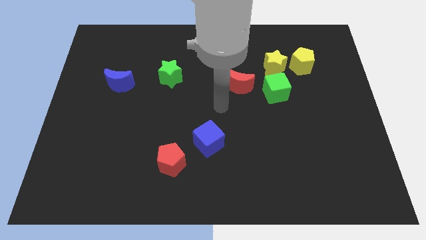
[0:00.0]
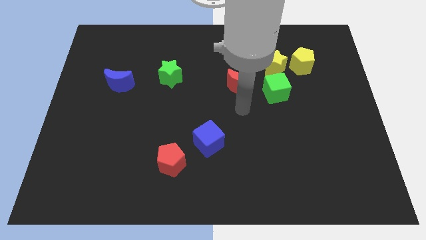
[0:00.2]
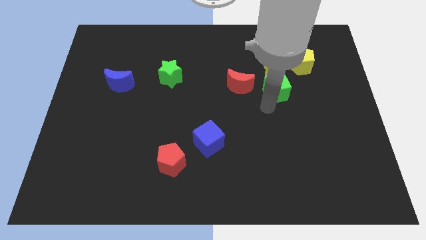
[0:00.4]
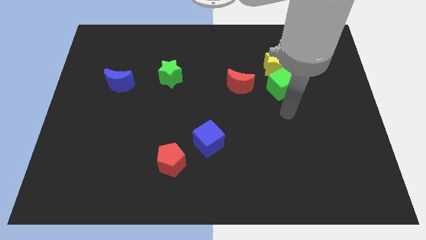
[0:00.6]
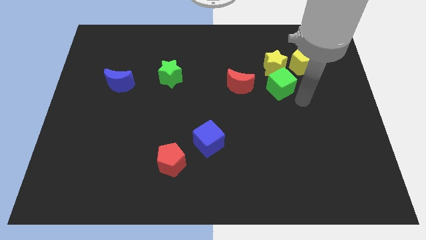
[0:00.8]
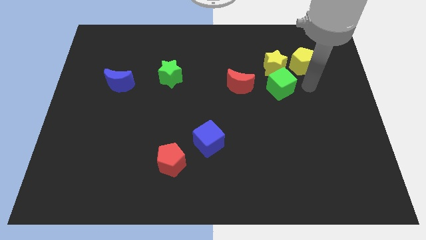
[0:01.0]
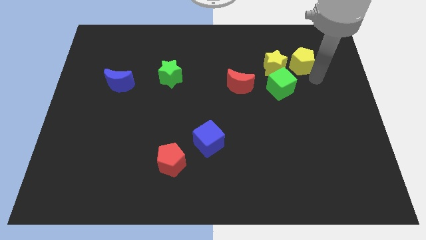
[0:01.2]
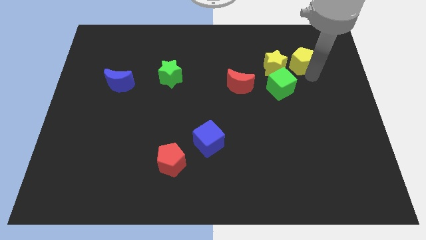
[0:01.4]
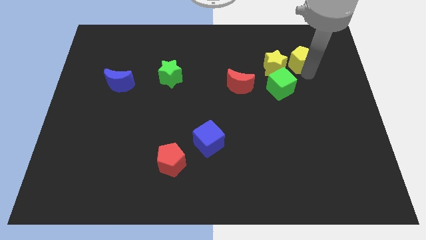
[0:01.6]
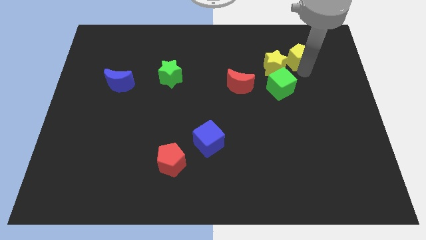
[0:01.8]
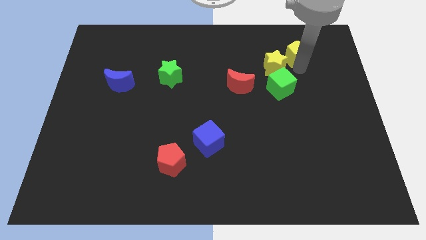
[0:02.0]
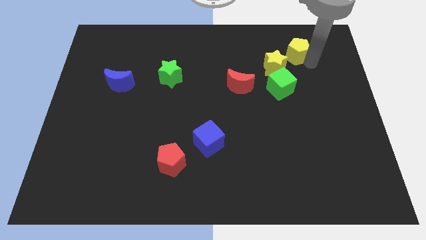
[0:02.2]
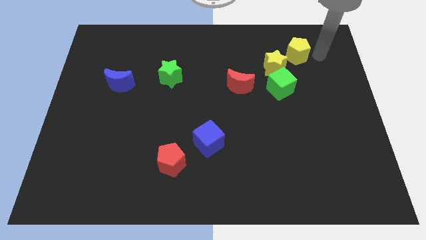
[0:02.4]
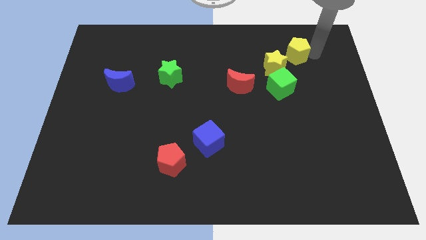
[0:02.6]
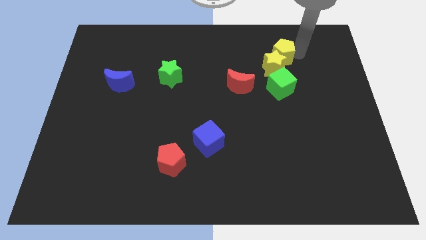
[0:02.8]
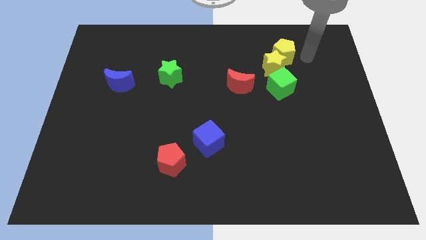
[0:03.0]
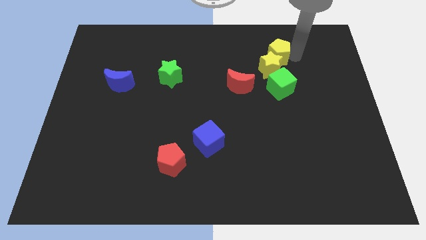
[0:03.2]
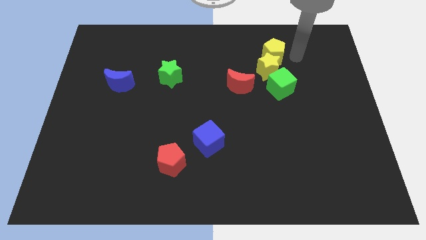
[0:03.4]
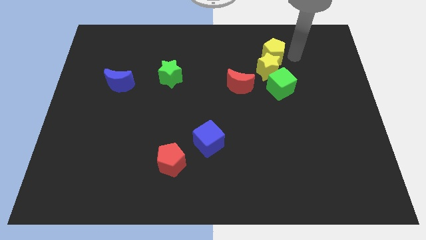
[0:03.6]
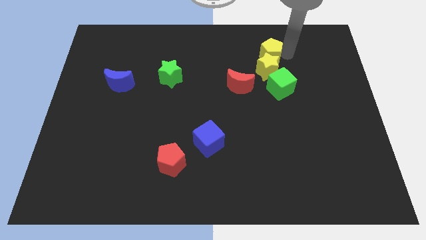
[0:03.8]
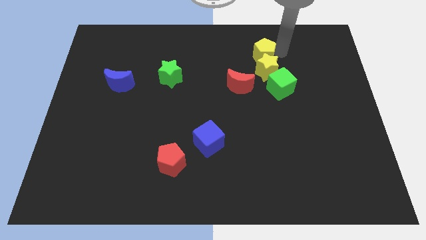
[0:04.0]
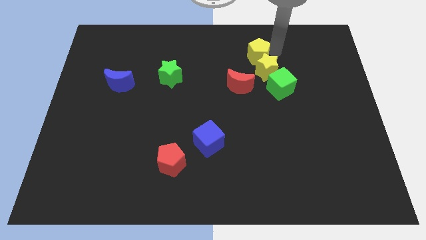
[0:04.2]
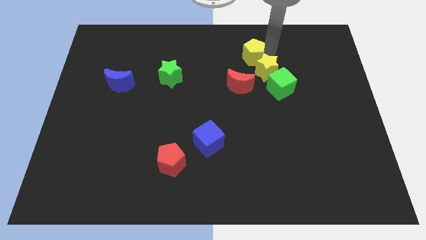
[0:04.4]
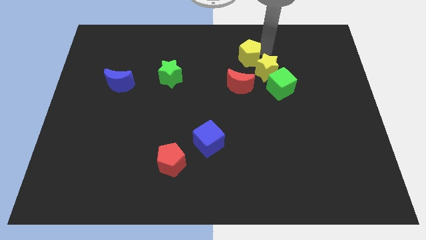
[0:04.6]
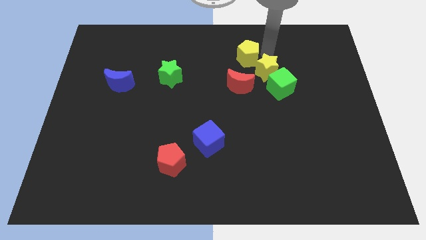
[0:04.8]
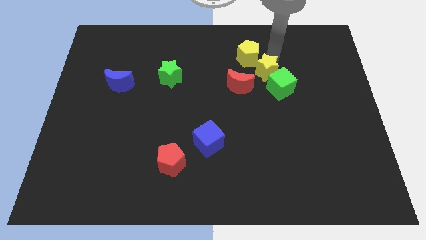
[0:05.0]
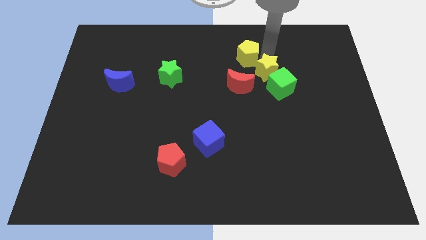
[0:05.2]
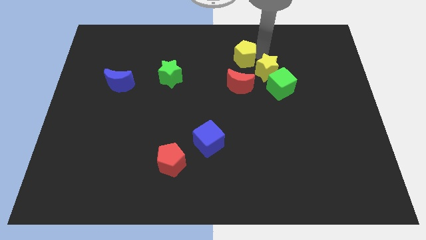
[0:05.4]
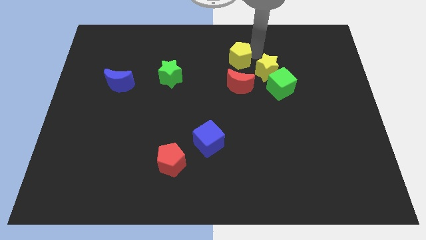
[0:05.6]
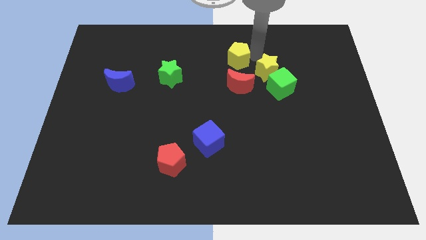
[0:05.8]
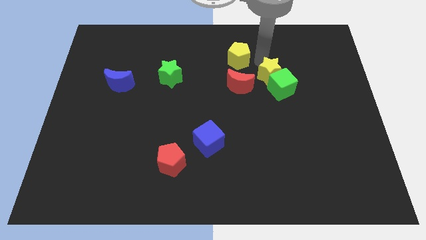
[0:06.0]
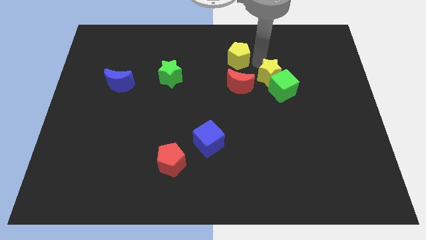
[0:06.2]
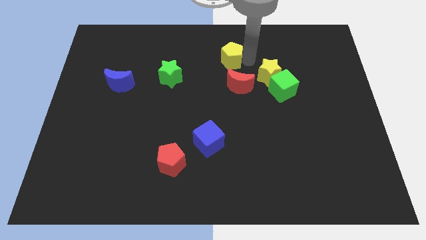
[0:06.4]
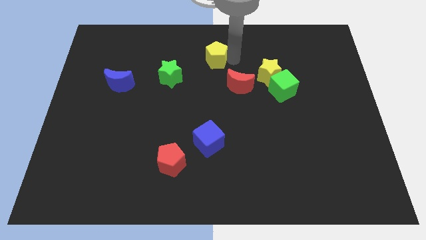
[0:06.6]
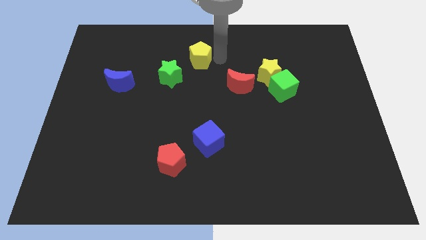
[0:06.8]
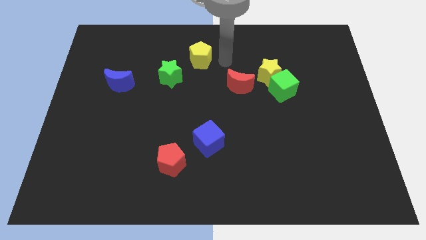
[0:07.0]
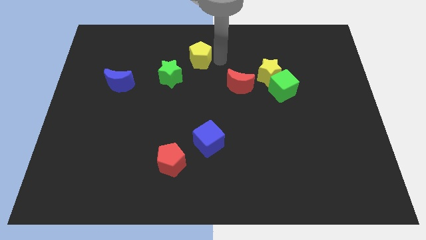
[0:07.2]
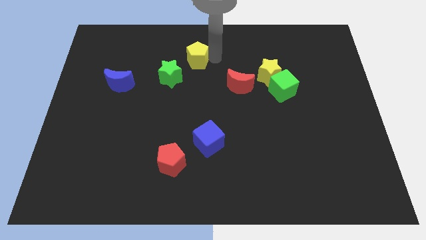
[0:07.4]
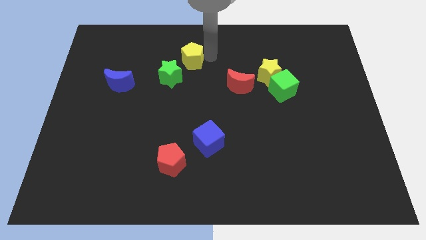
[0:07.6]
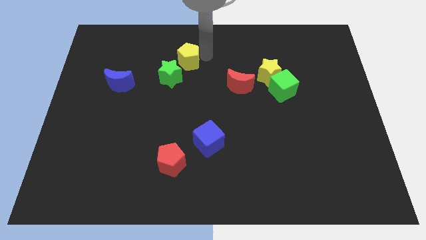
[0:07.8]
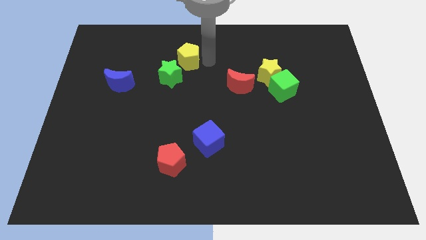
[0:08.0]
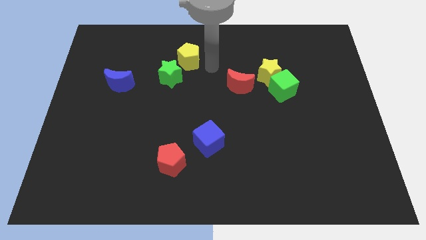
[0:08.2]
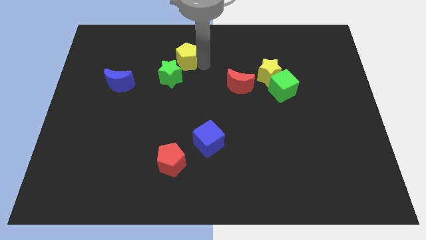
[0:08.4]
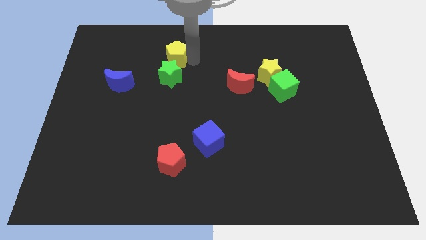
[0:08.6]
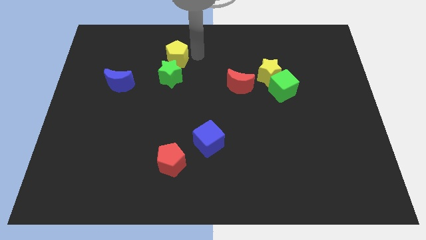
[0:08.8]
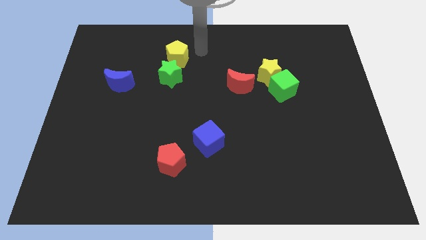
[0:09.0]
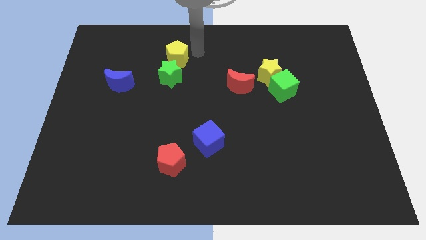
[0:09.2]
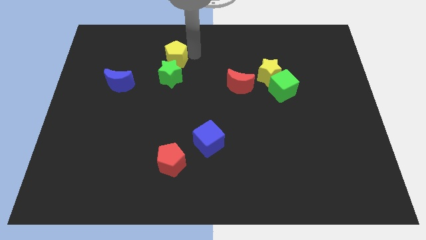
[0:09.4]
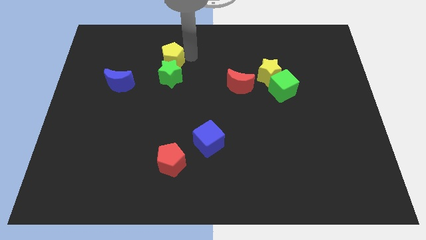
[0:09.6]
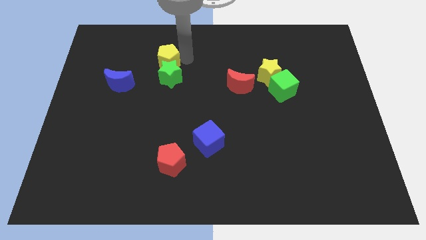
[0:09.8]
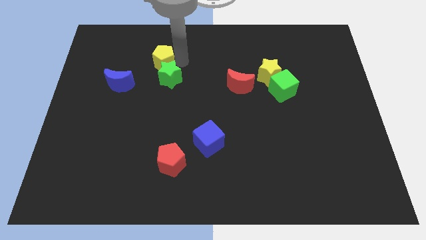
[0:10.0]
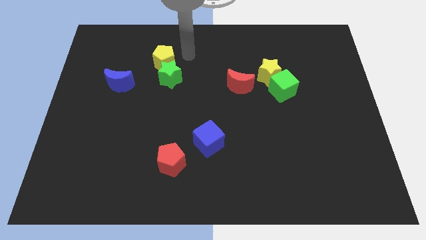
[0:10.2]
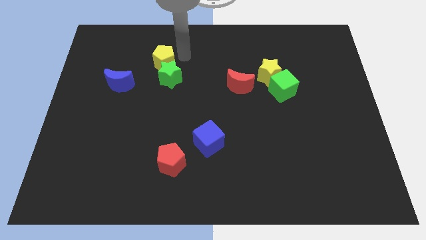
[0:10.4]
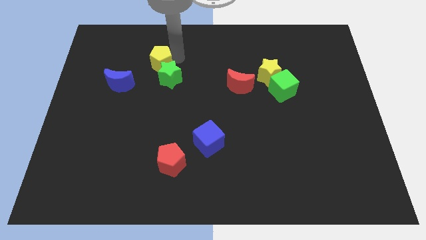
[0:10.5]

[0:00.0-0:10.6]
push the yellow pentagon to the top right side of the blue moon

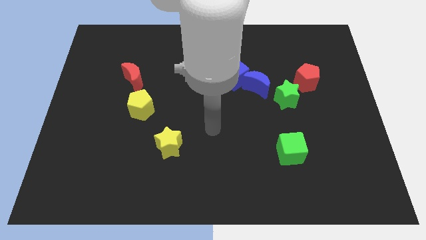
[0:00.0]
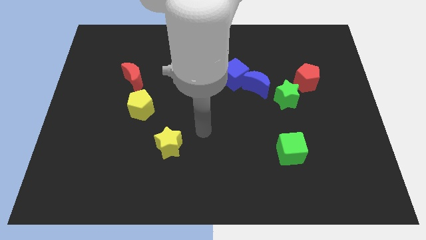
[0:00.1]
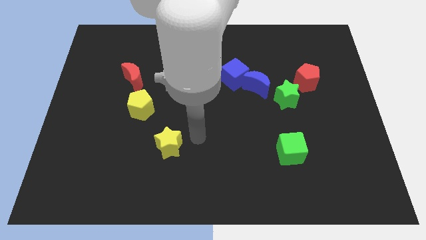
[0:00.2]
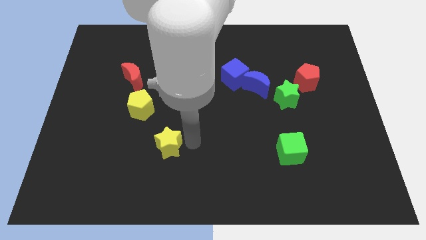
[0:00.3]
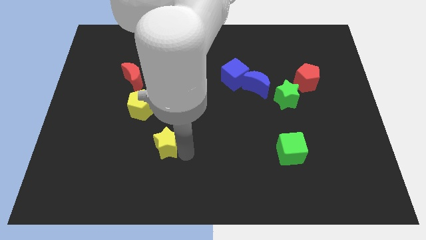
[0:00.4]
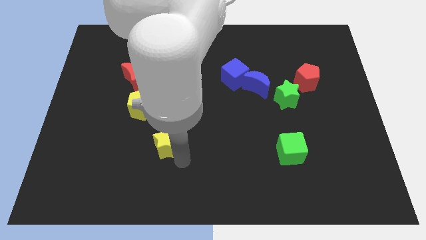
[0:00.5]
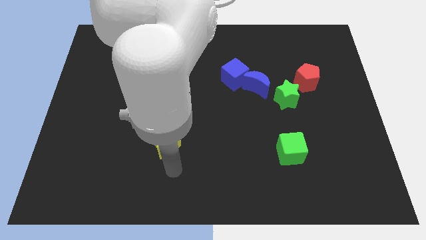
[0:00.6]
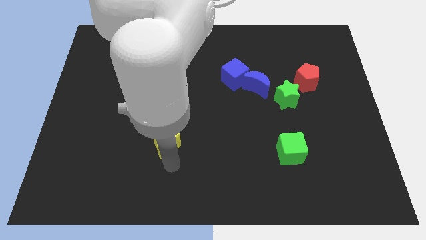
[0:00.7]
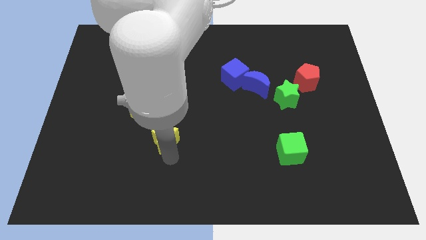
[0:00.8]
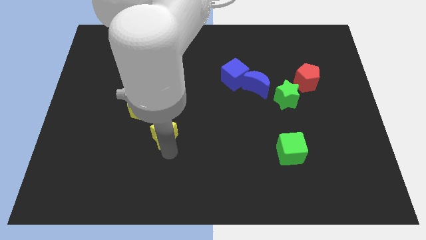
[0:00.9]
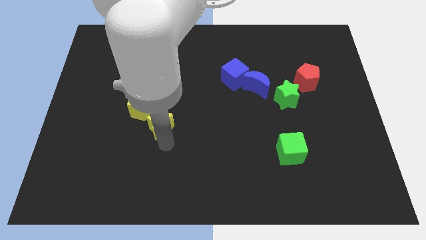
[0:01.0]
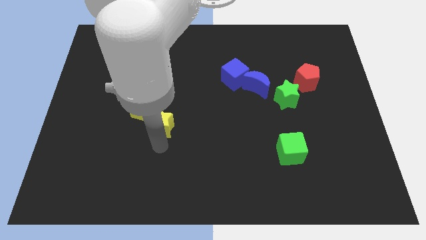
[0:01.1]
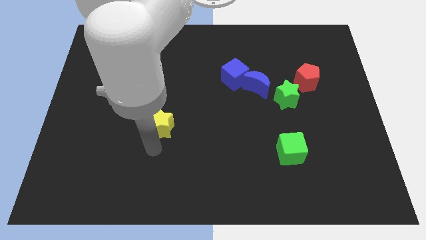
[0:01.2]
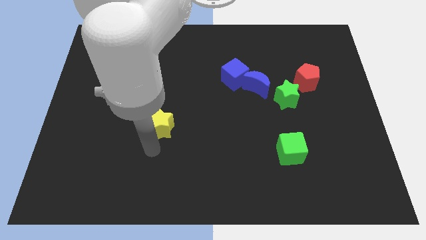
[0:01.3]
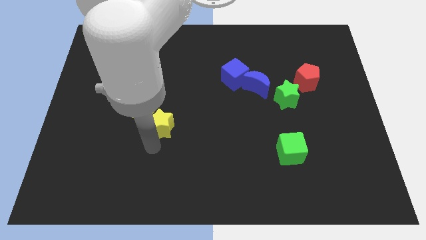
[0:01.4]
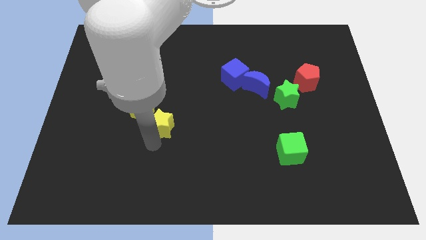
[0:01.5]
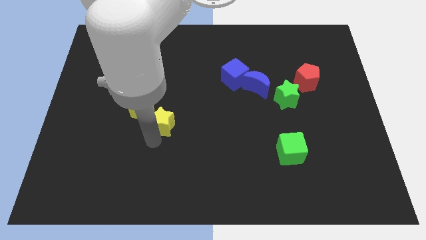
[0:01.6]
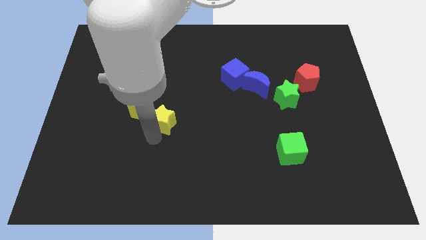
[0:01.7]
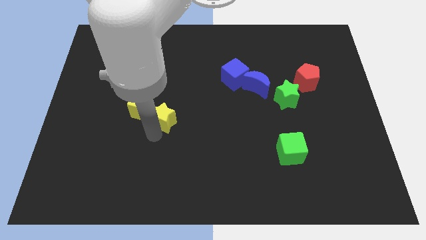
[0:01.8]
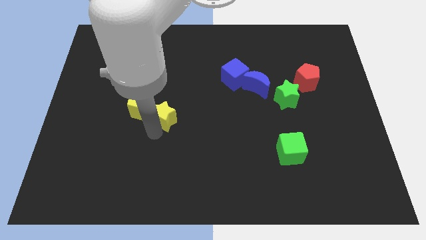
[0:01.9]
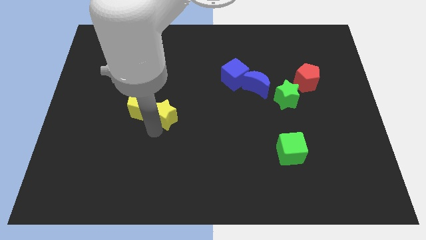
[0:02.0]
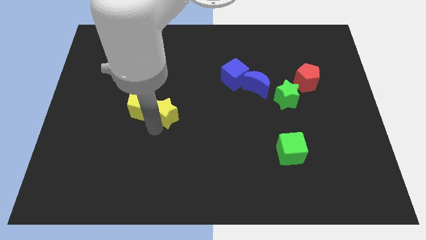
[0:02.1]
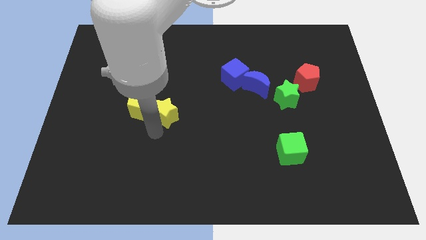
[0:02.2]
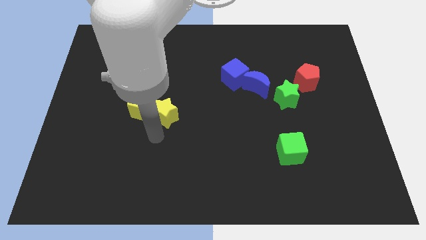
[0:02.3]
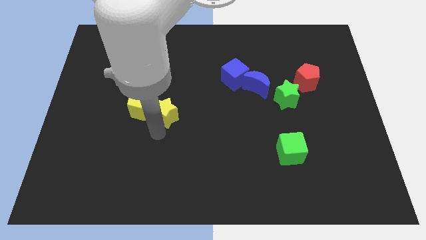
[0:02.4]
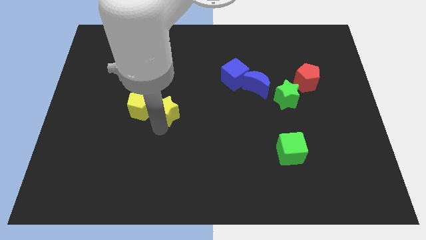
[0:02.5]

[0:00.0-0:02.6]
put the yellow star to the top right of the yellow pentagon
